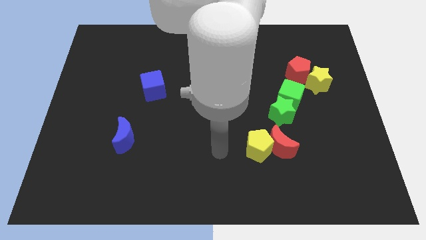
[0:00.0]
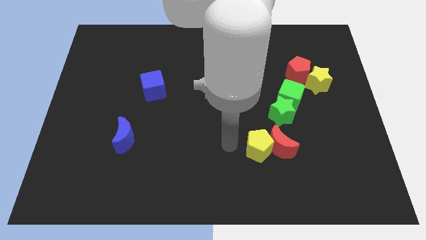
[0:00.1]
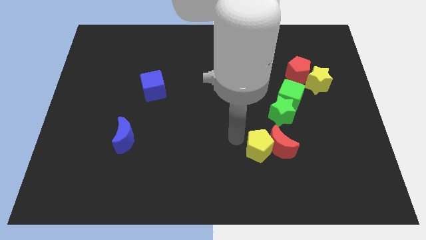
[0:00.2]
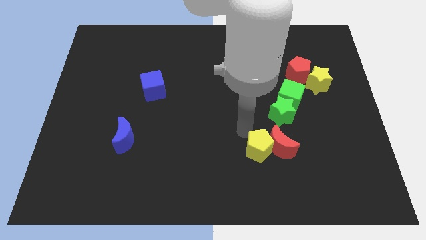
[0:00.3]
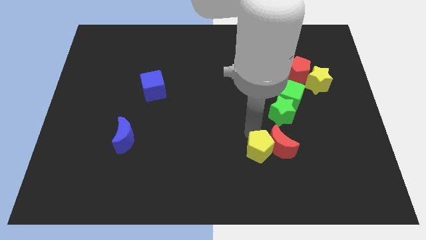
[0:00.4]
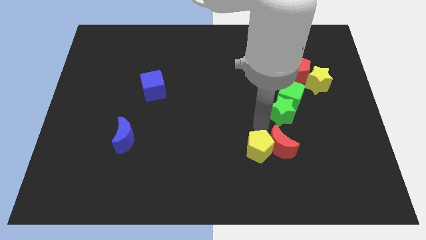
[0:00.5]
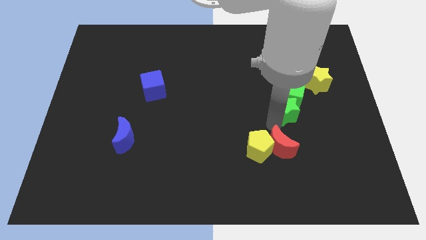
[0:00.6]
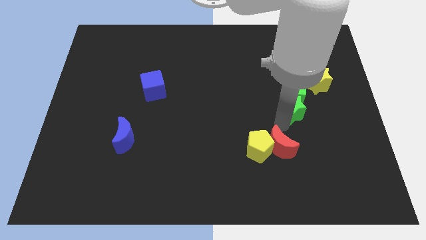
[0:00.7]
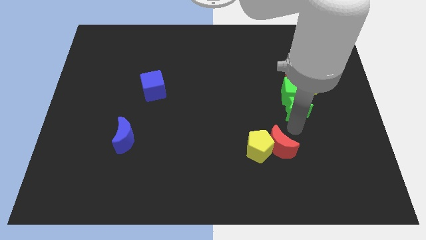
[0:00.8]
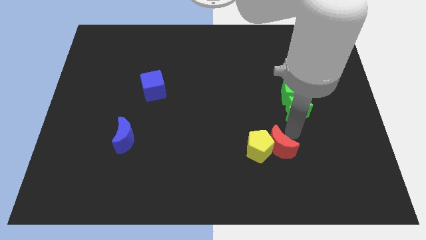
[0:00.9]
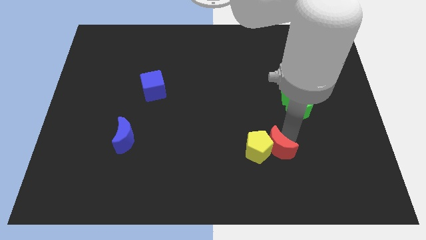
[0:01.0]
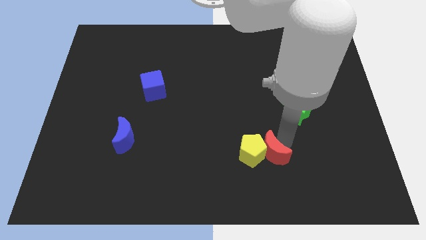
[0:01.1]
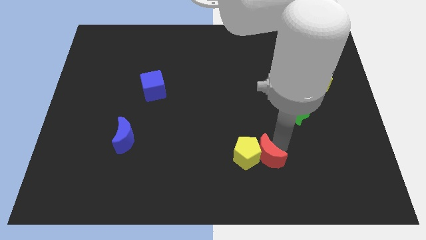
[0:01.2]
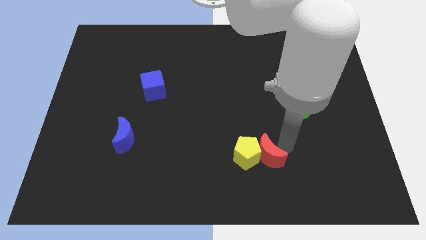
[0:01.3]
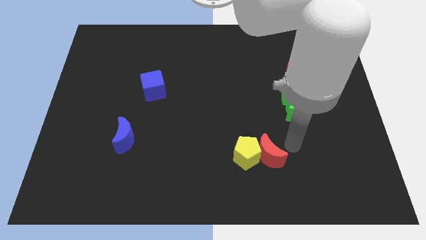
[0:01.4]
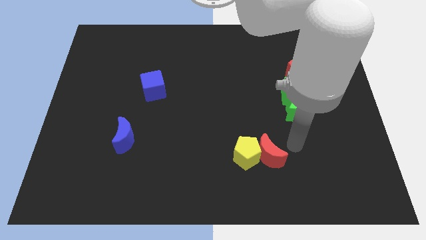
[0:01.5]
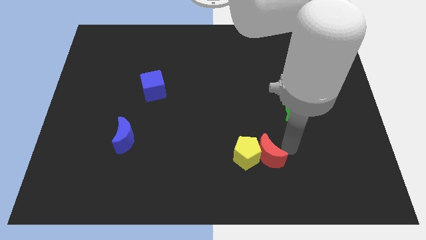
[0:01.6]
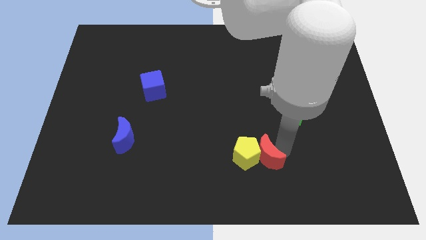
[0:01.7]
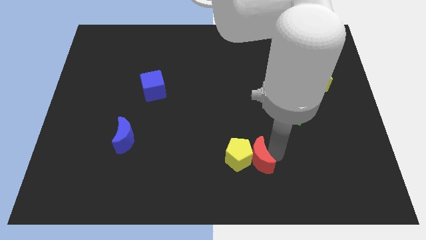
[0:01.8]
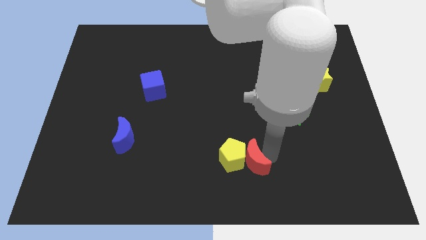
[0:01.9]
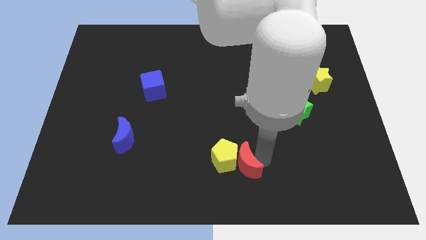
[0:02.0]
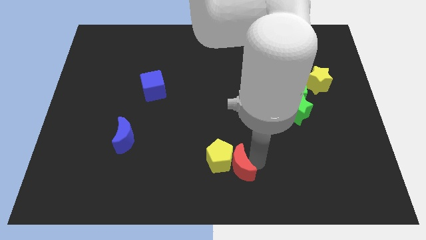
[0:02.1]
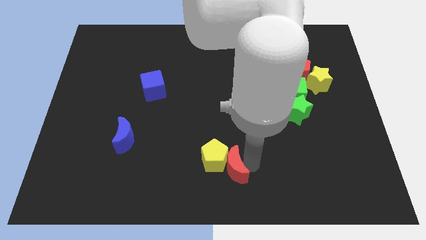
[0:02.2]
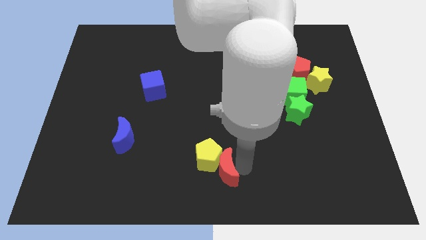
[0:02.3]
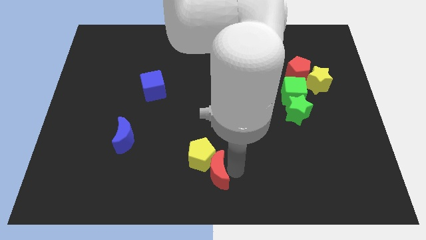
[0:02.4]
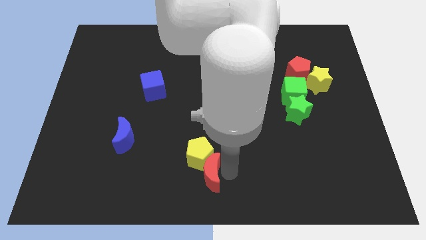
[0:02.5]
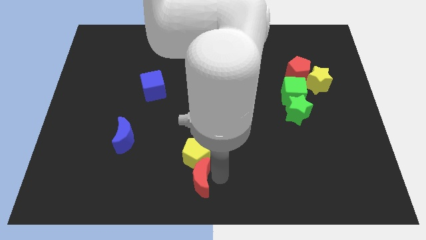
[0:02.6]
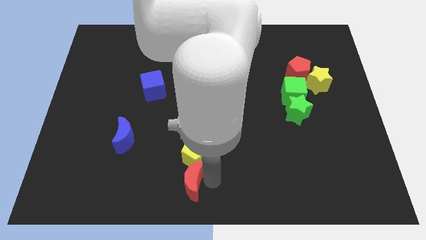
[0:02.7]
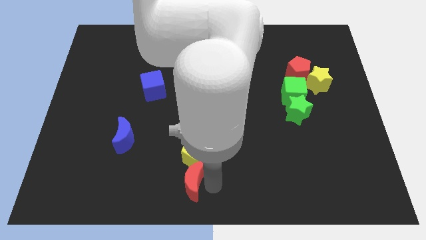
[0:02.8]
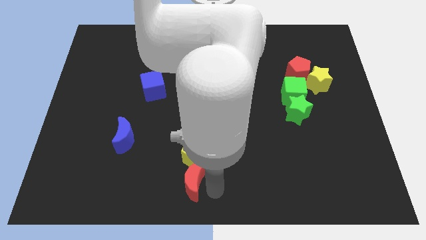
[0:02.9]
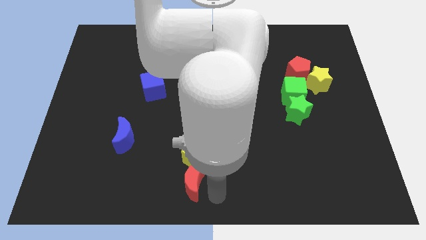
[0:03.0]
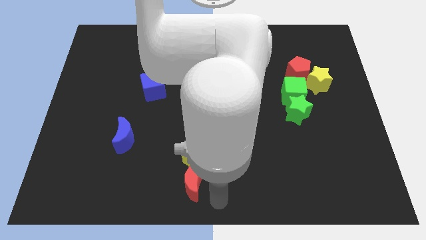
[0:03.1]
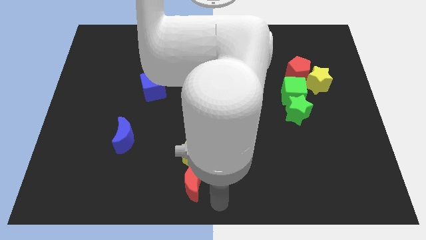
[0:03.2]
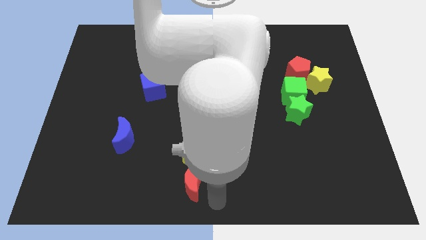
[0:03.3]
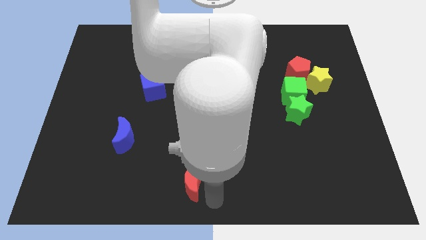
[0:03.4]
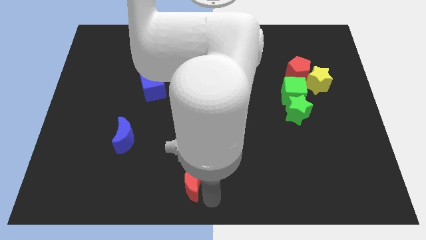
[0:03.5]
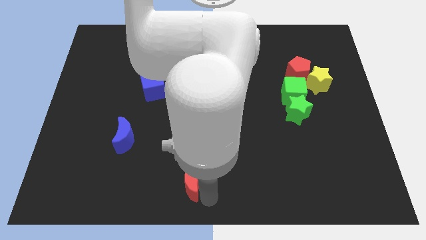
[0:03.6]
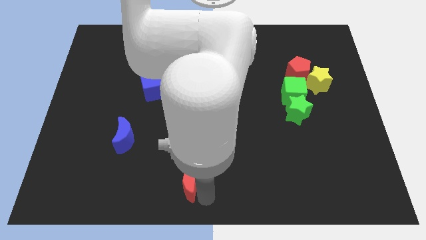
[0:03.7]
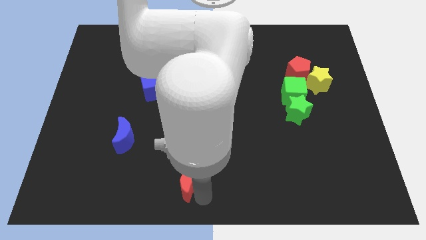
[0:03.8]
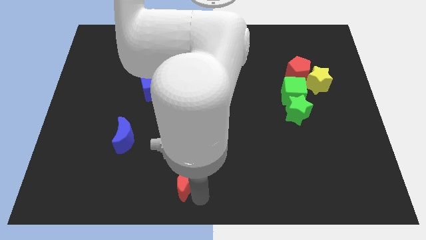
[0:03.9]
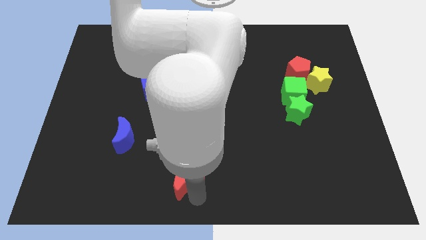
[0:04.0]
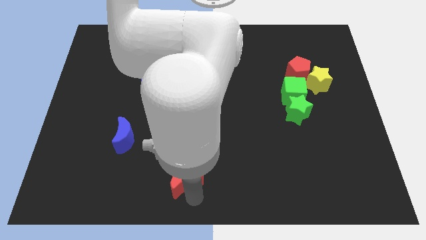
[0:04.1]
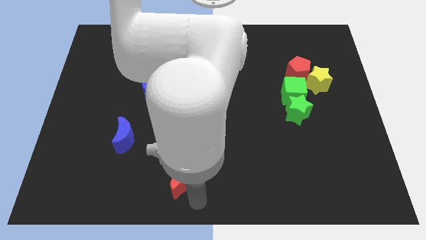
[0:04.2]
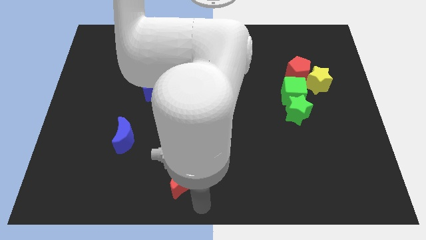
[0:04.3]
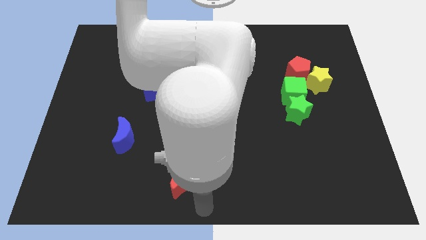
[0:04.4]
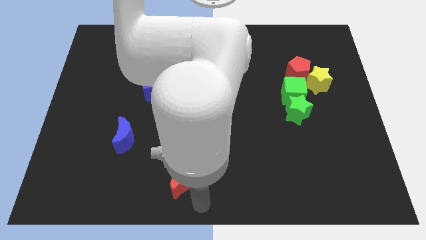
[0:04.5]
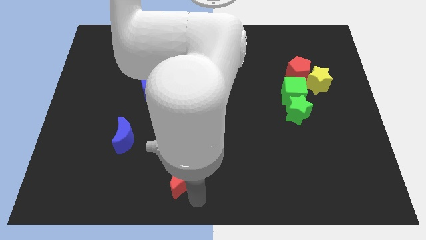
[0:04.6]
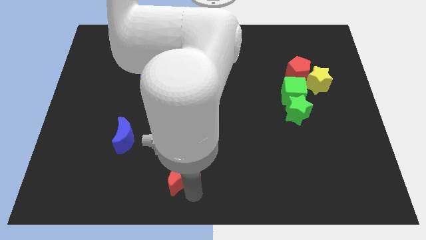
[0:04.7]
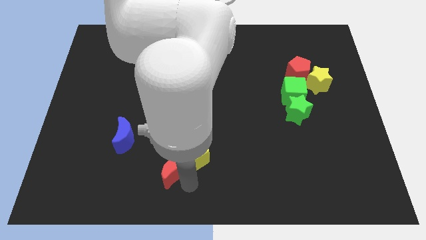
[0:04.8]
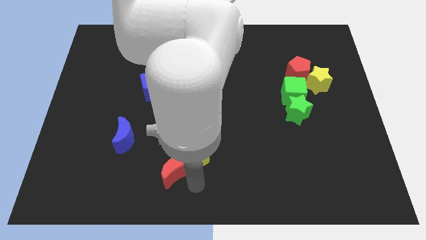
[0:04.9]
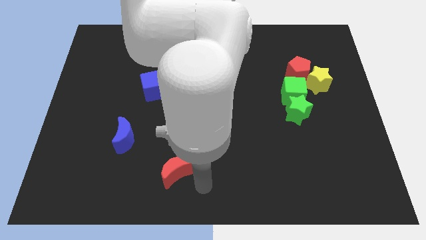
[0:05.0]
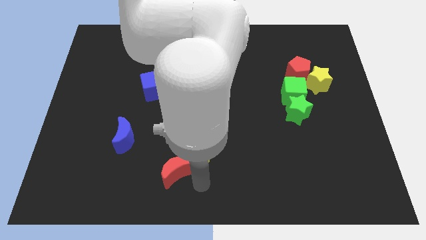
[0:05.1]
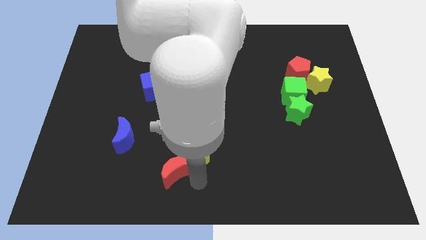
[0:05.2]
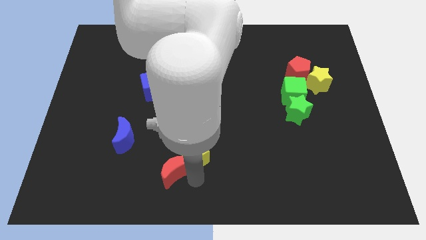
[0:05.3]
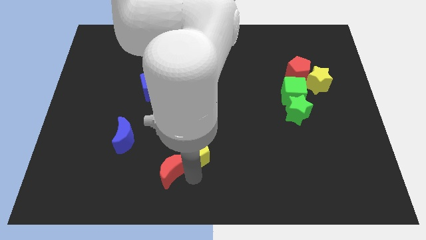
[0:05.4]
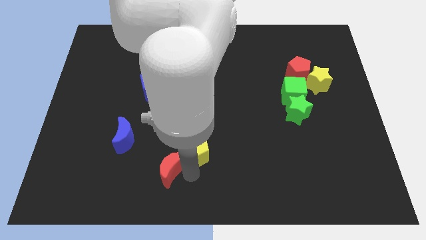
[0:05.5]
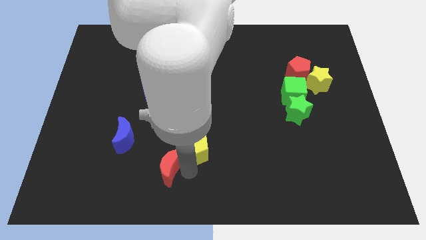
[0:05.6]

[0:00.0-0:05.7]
put the red moon to the bottom right of the blue moon
